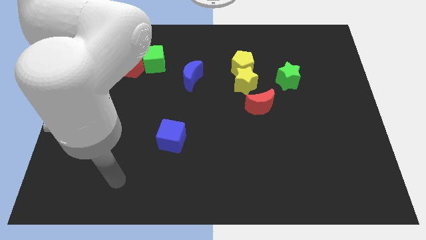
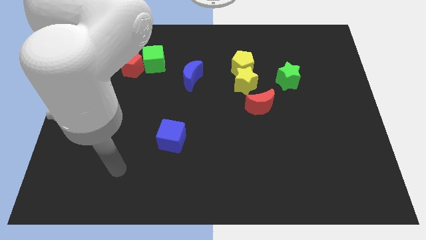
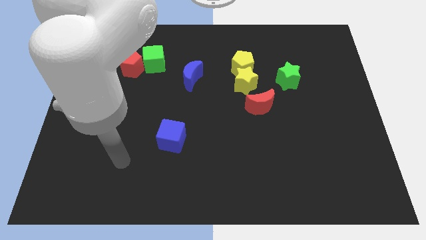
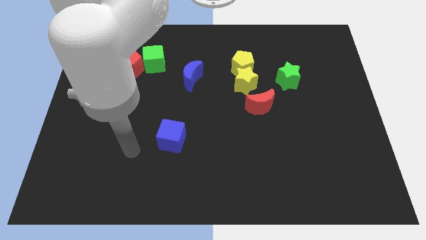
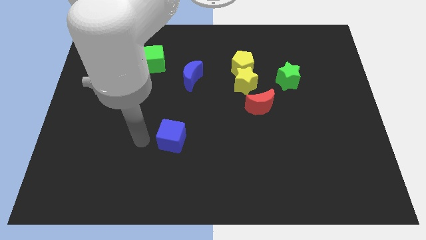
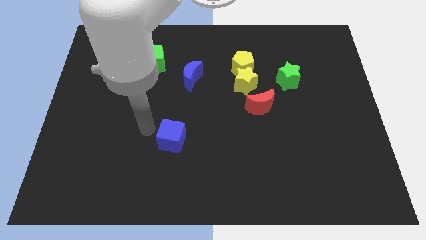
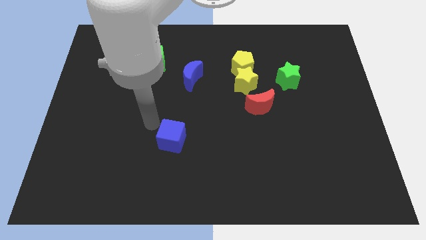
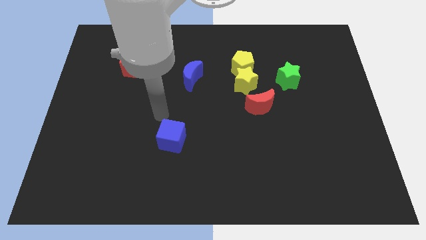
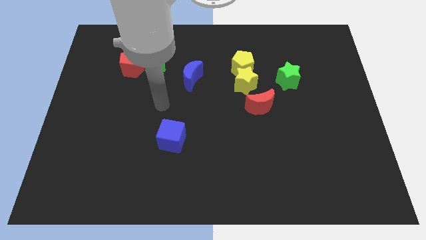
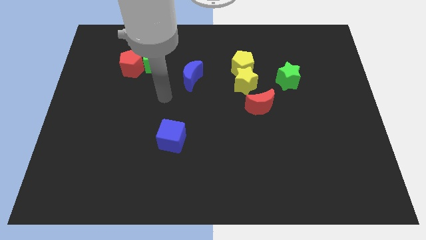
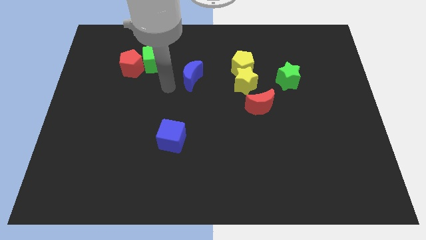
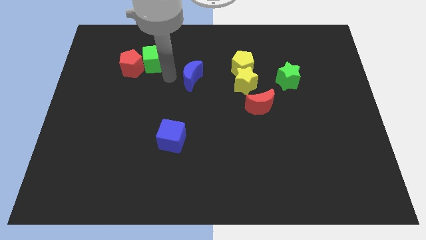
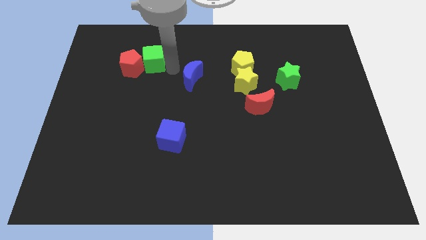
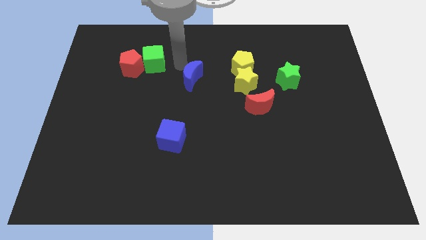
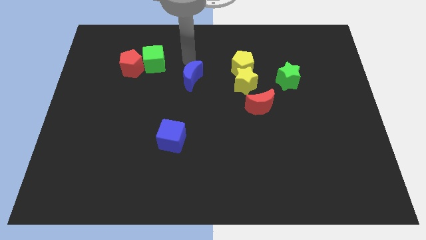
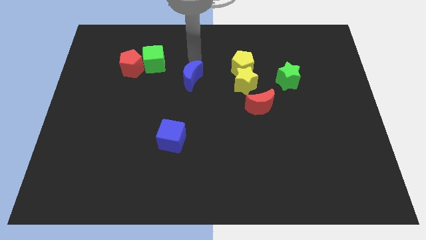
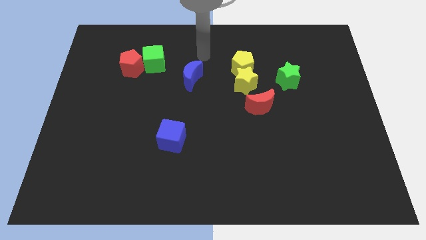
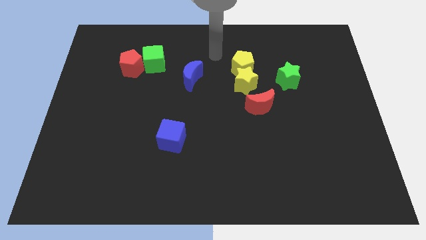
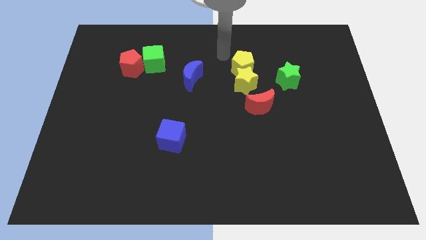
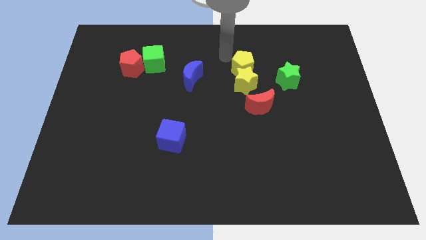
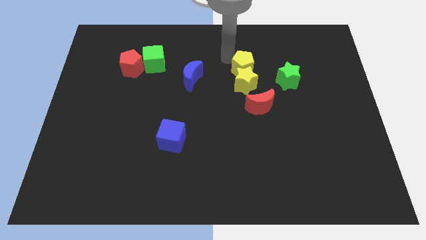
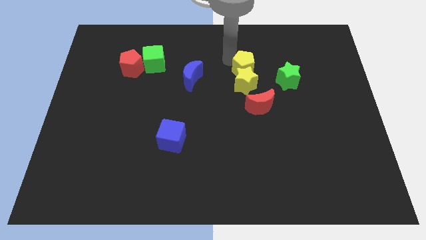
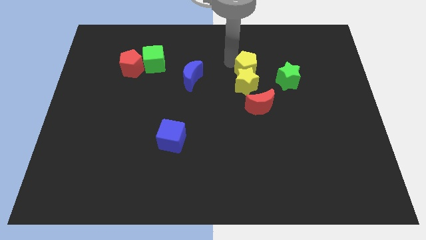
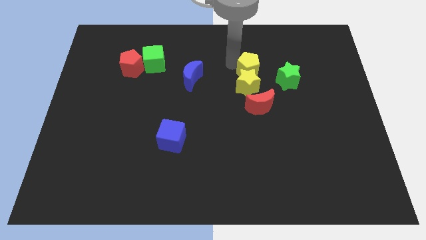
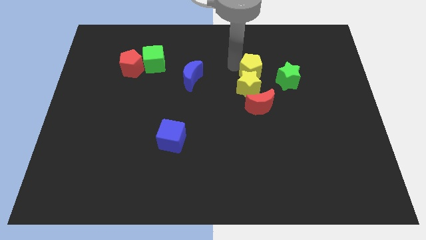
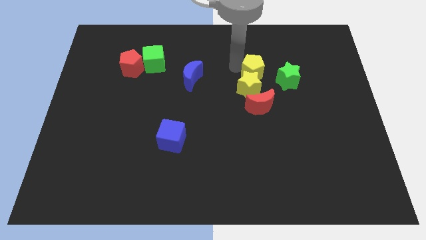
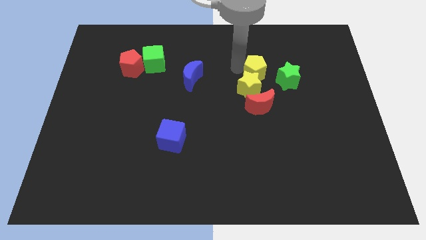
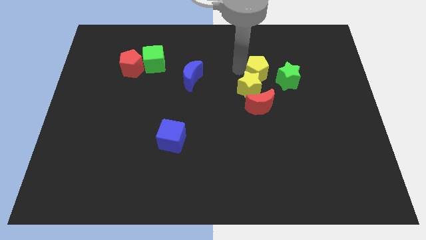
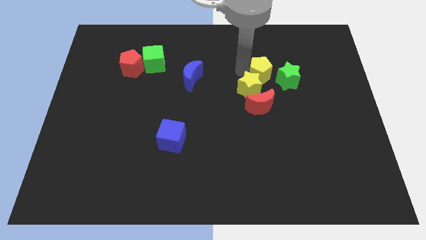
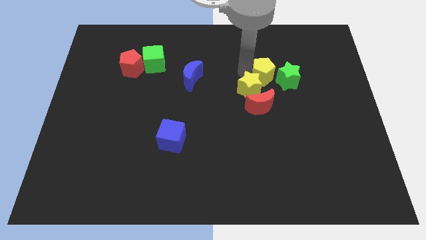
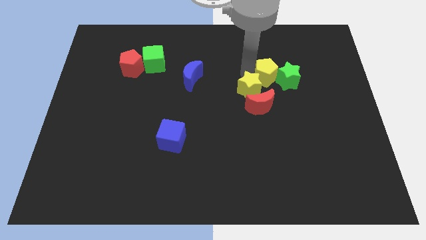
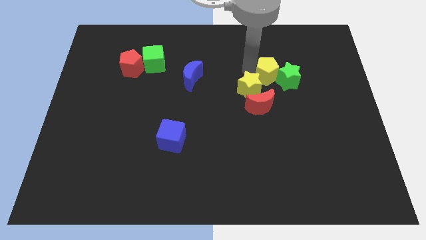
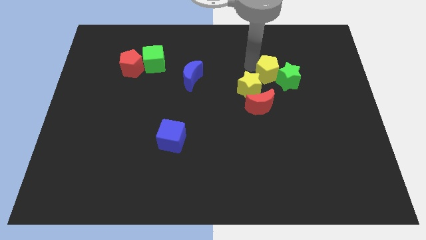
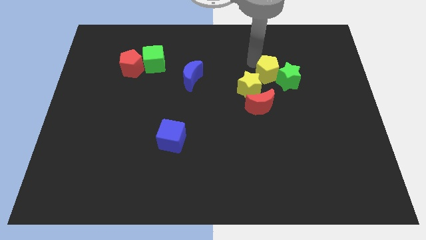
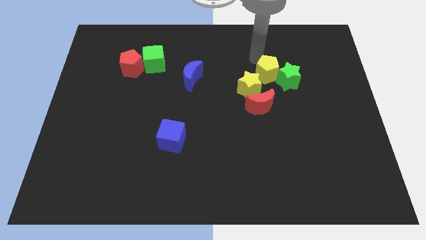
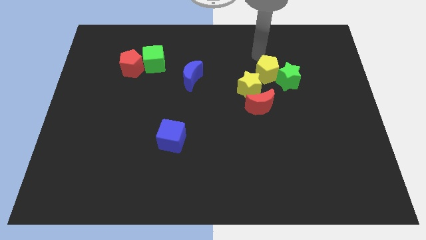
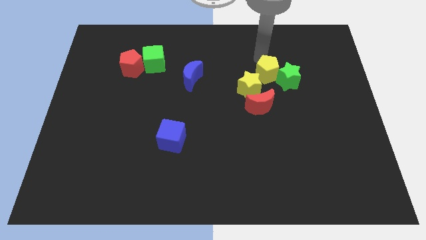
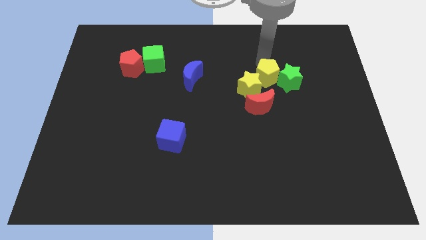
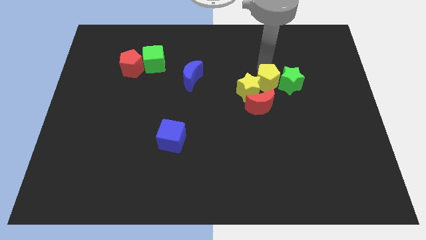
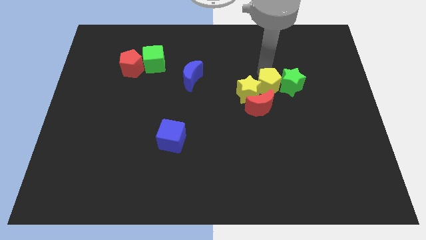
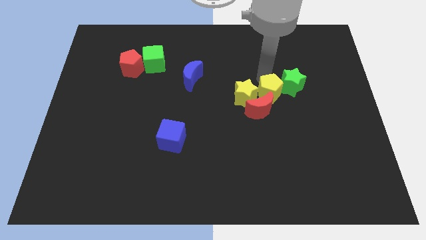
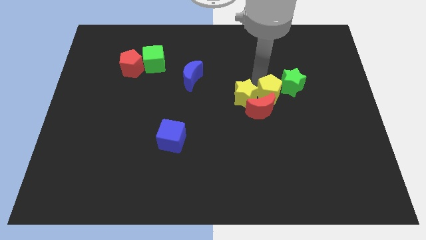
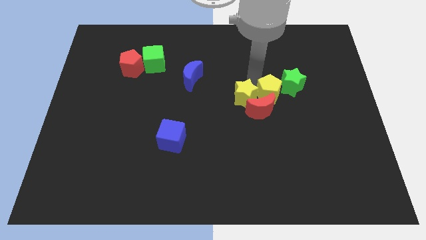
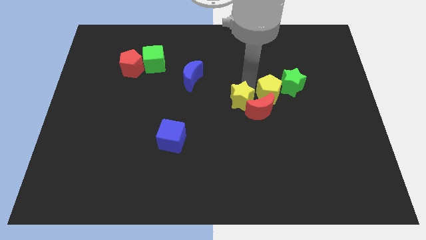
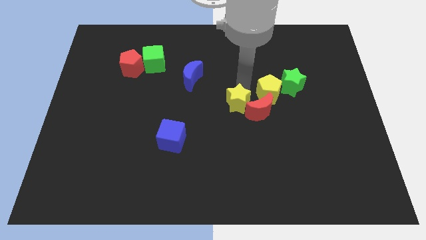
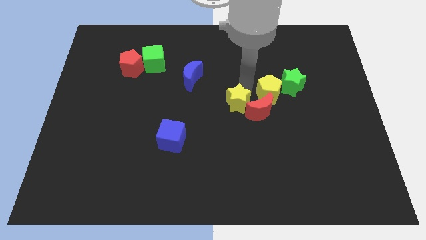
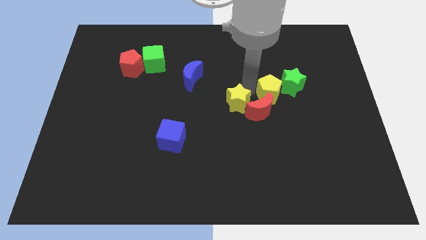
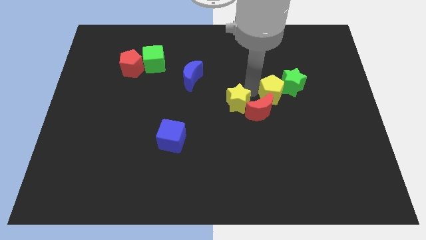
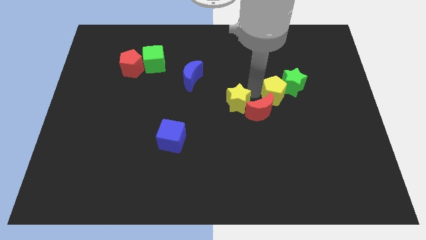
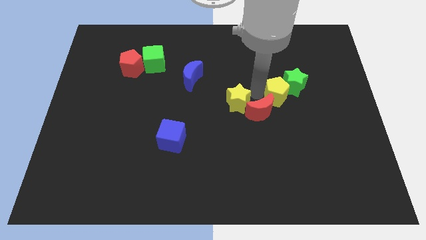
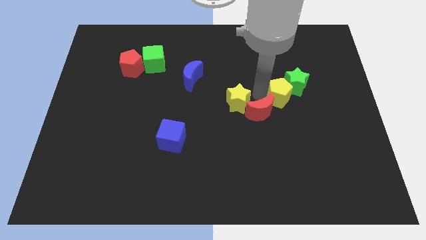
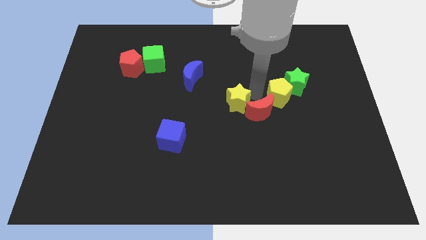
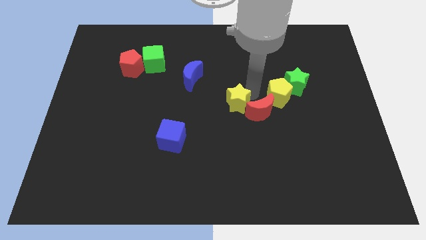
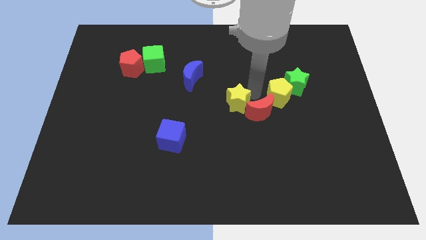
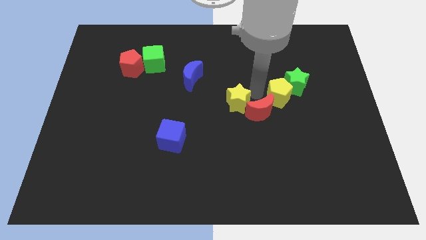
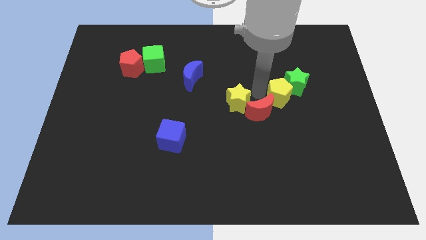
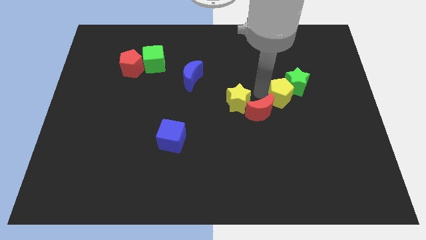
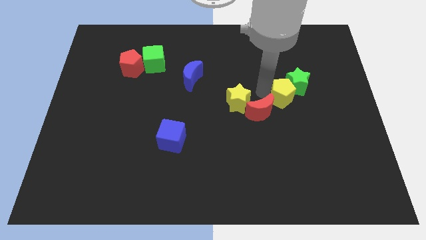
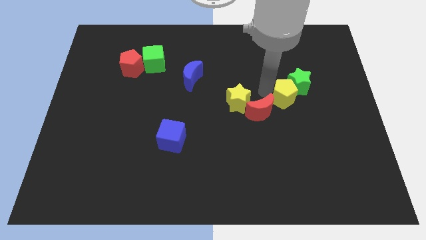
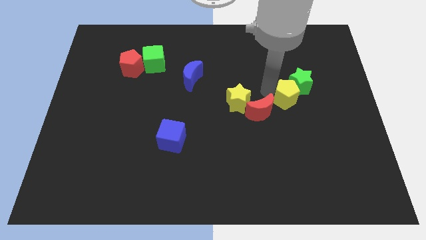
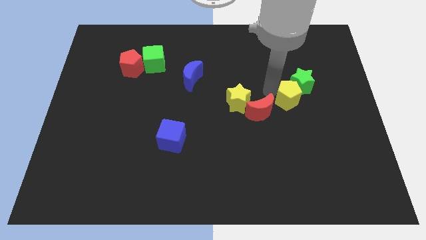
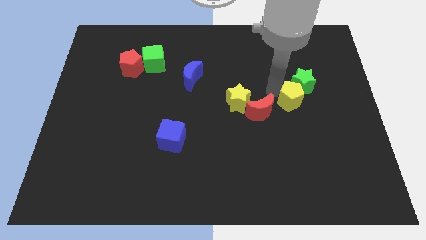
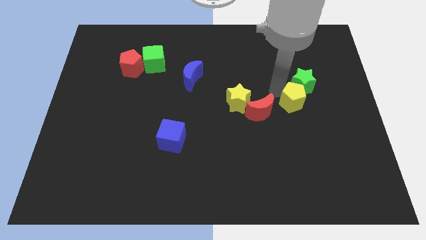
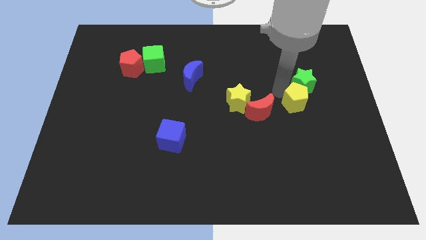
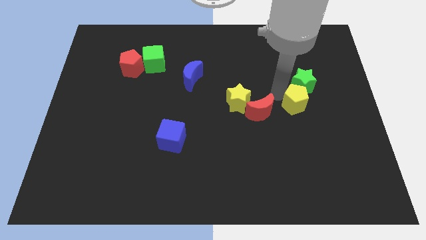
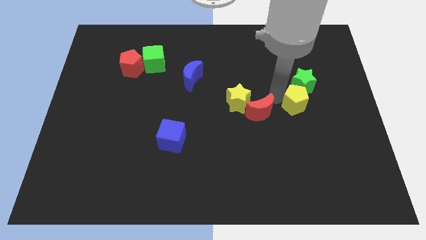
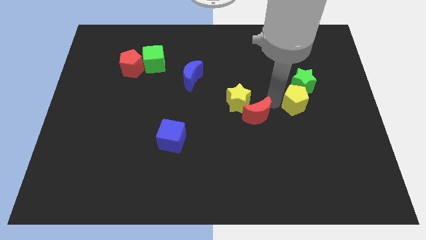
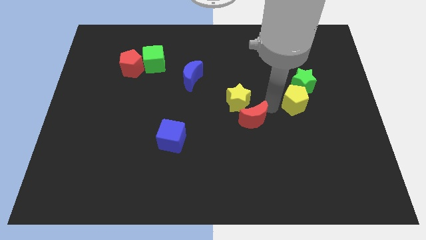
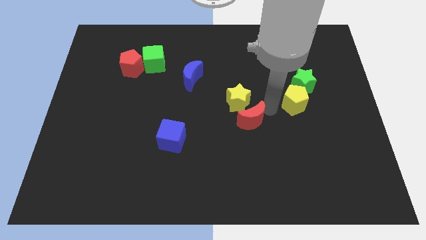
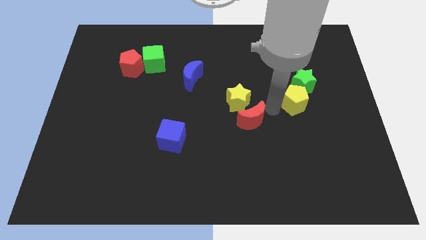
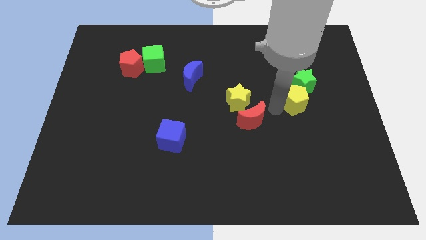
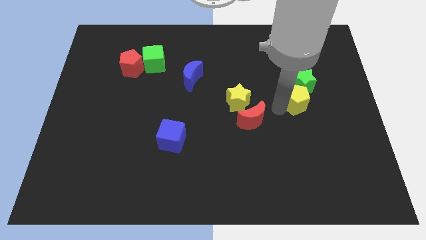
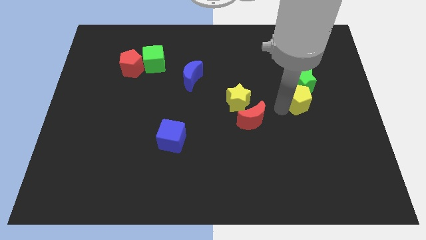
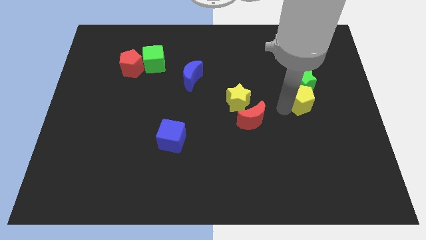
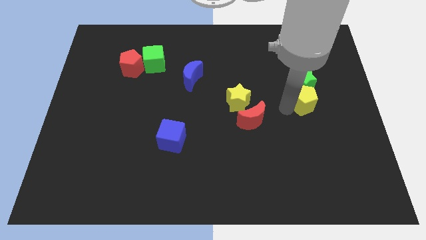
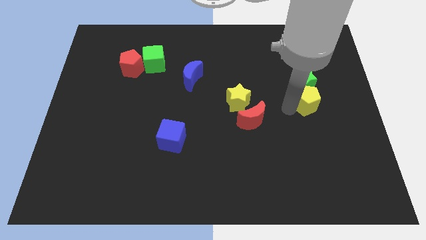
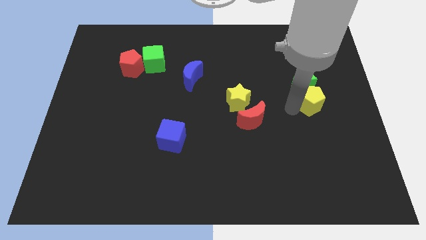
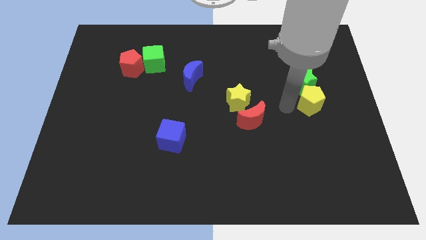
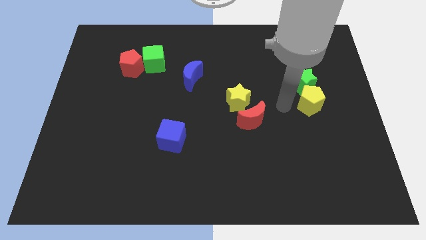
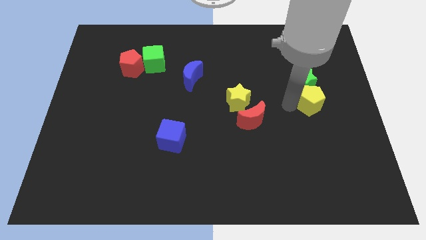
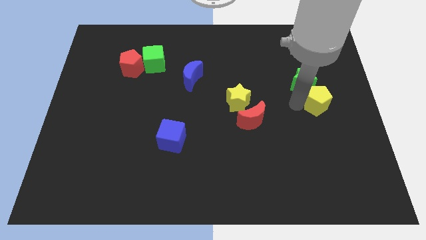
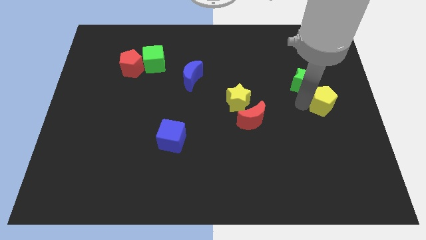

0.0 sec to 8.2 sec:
move the yellow pentagon to the right side
